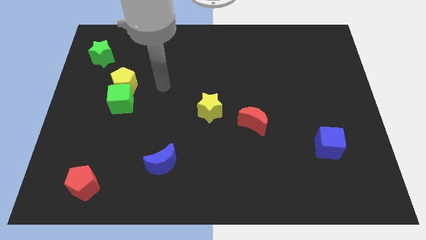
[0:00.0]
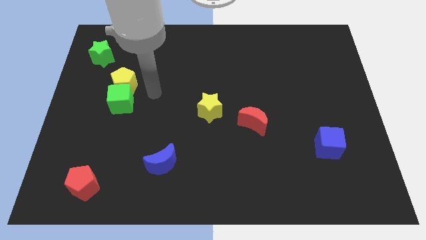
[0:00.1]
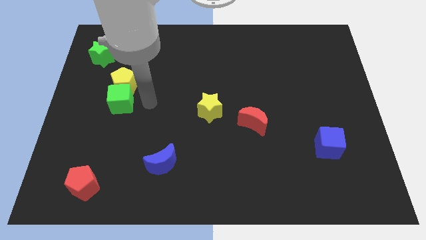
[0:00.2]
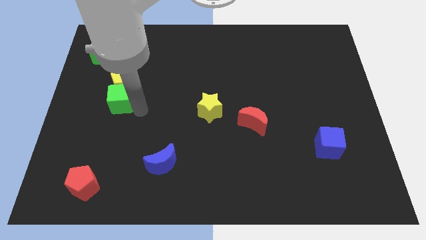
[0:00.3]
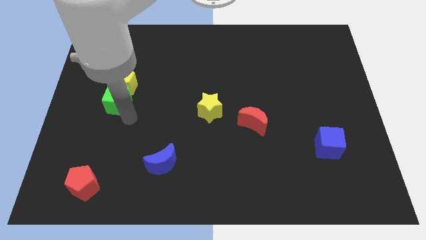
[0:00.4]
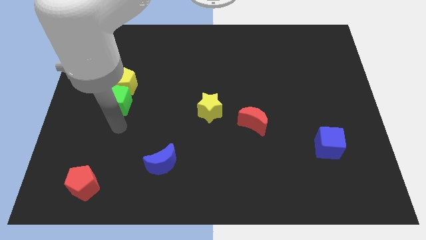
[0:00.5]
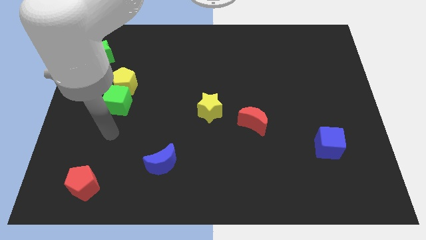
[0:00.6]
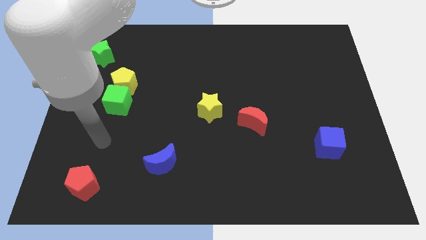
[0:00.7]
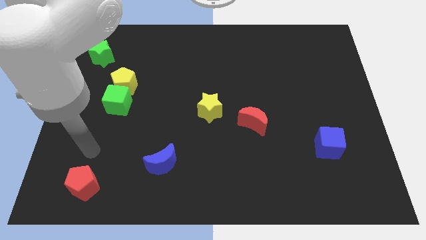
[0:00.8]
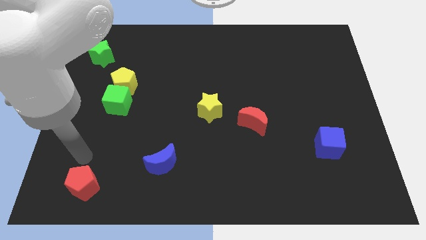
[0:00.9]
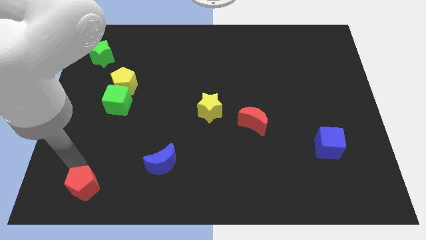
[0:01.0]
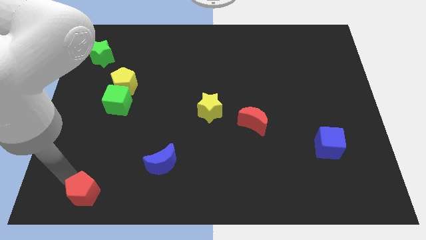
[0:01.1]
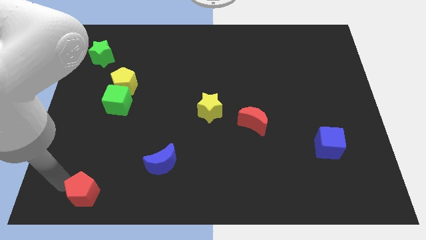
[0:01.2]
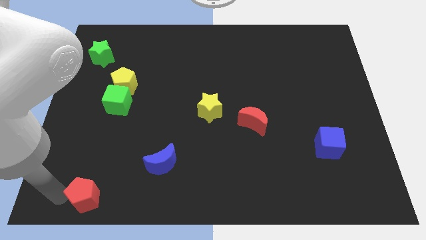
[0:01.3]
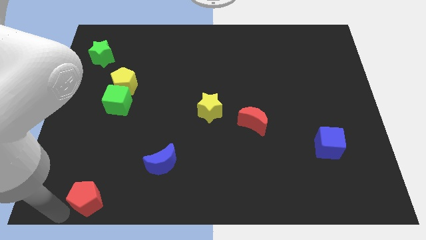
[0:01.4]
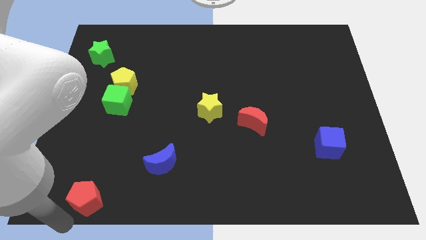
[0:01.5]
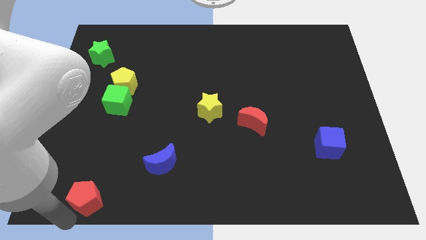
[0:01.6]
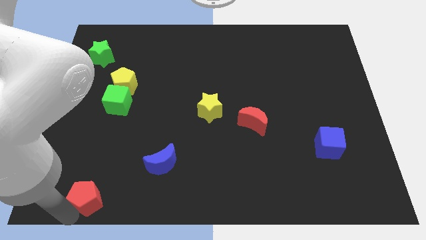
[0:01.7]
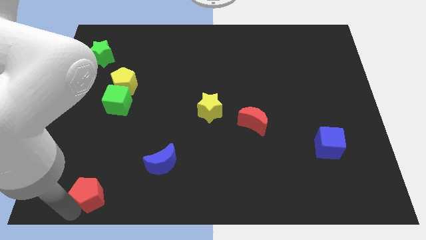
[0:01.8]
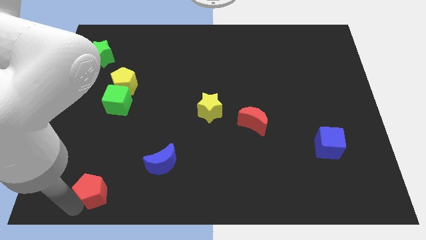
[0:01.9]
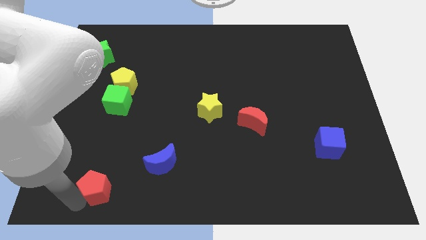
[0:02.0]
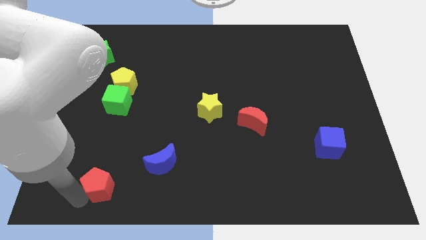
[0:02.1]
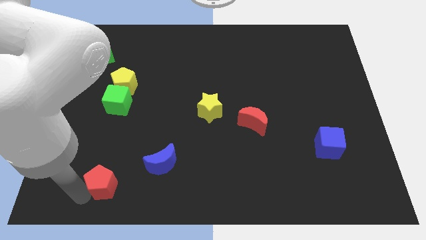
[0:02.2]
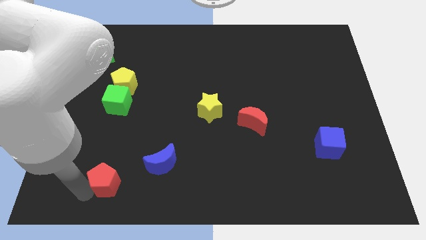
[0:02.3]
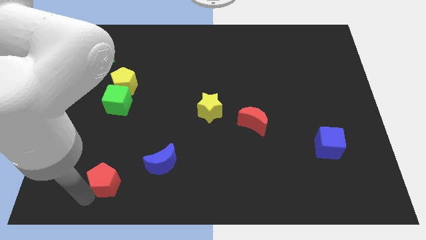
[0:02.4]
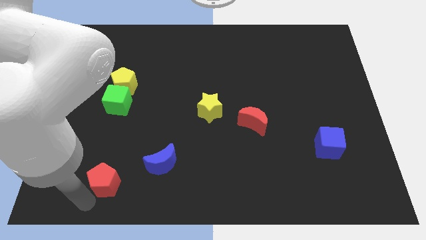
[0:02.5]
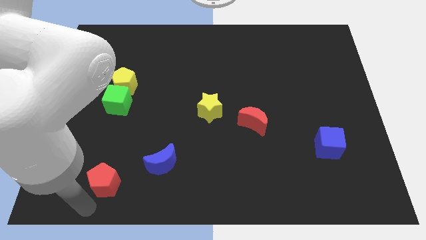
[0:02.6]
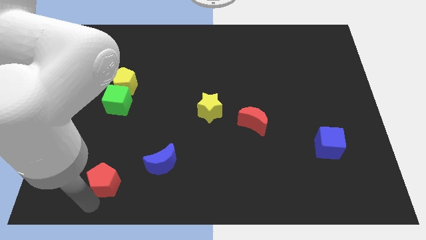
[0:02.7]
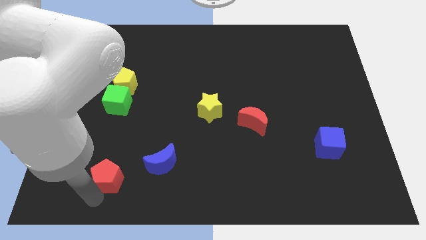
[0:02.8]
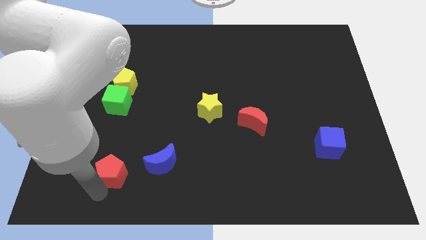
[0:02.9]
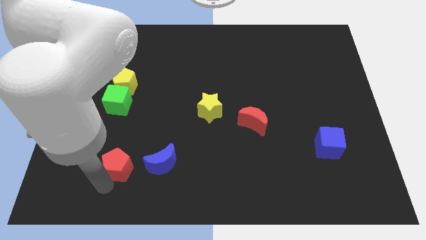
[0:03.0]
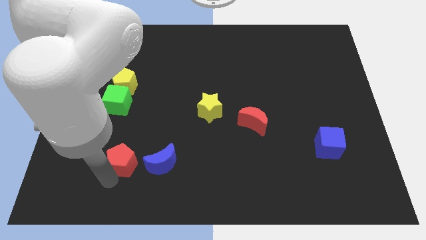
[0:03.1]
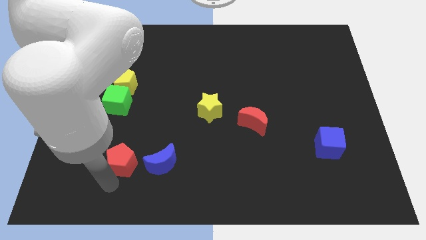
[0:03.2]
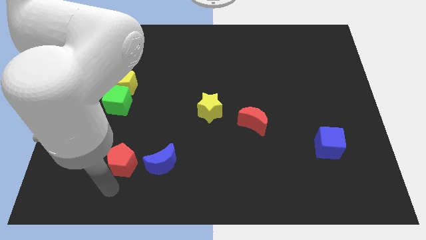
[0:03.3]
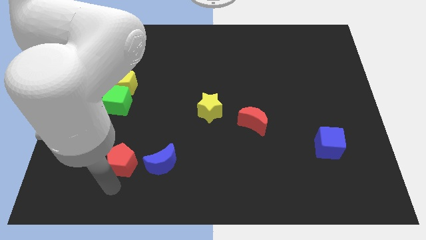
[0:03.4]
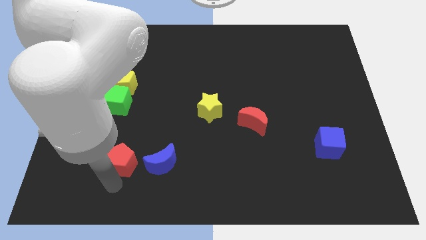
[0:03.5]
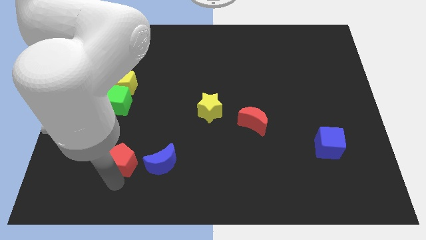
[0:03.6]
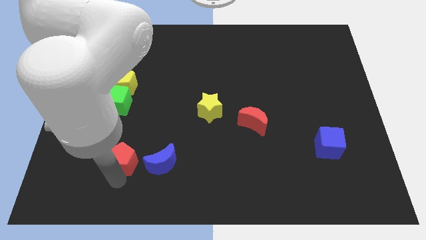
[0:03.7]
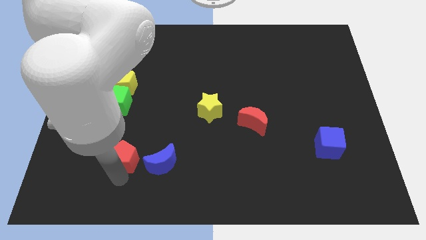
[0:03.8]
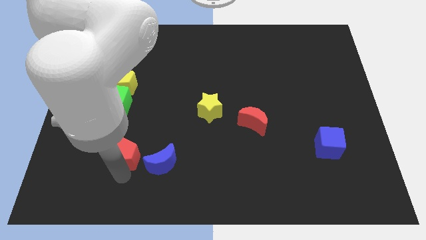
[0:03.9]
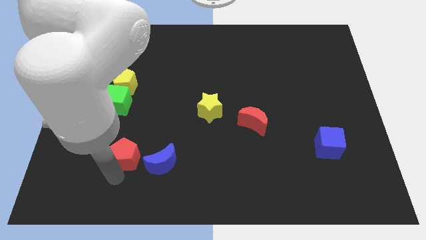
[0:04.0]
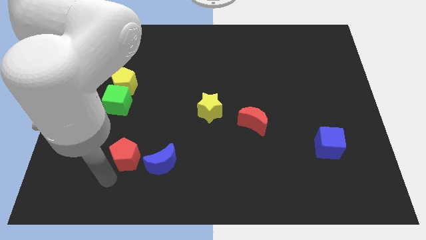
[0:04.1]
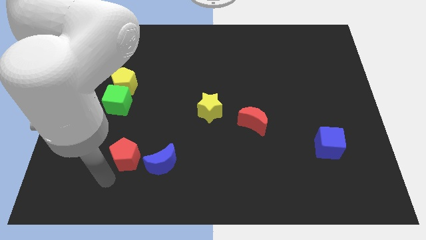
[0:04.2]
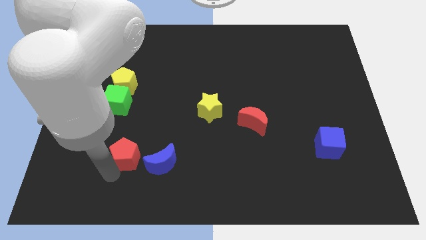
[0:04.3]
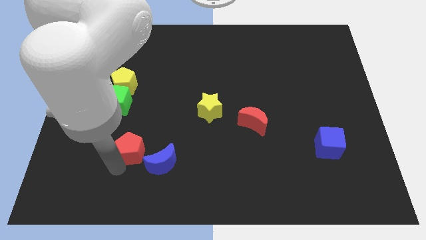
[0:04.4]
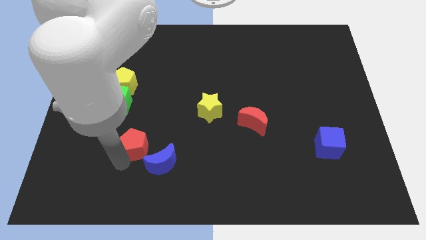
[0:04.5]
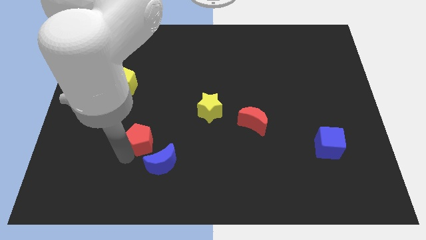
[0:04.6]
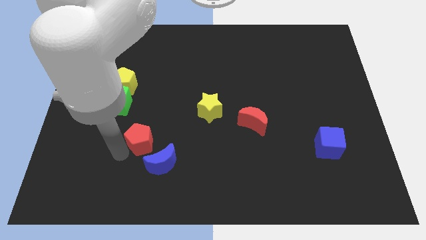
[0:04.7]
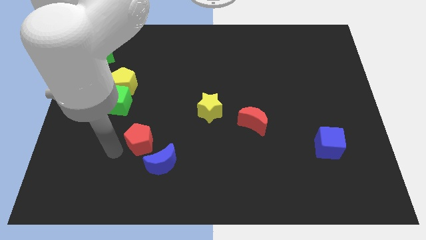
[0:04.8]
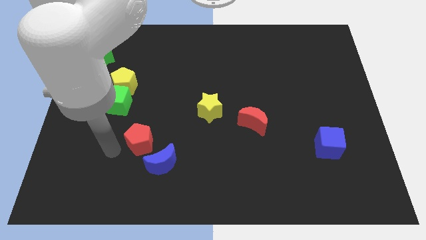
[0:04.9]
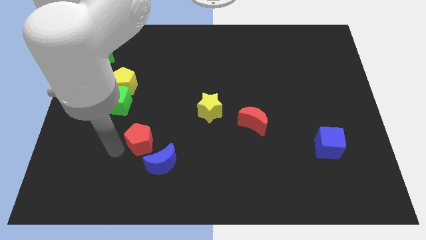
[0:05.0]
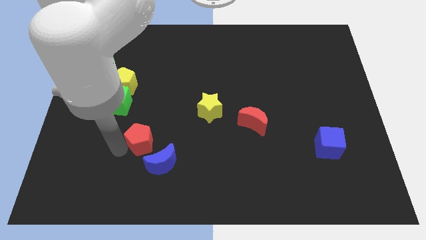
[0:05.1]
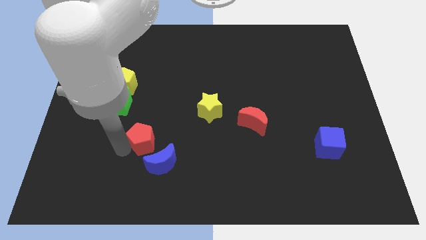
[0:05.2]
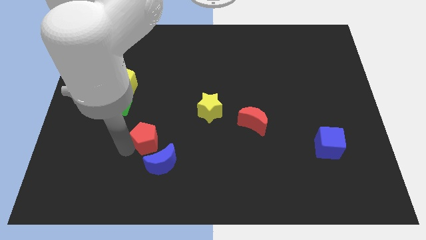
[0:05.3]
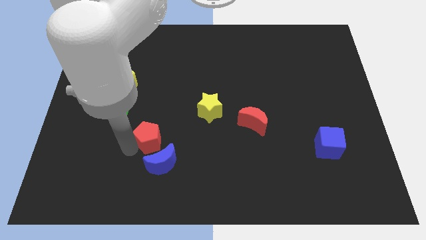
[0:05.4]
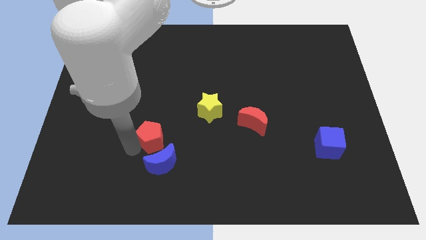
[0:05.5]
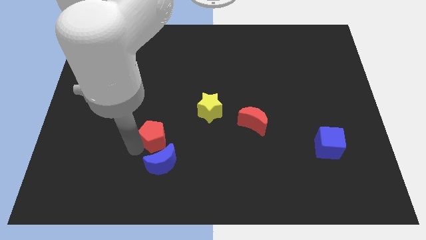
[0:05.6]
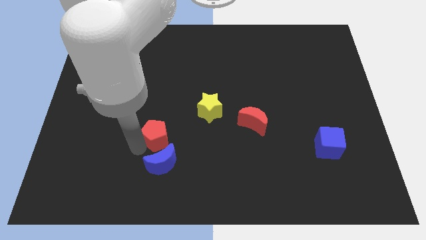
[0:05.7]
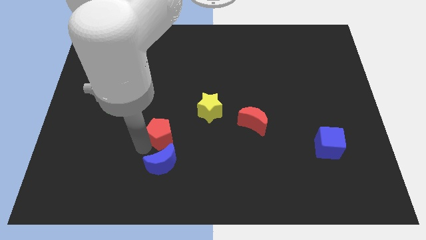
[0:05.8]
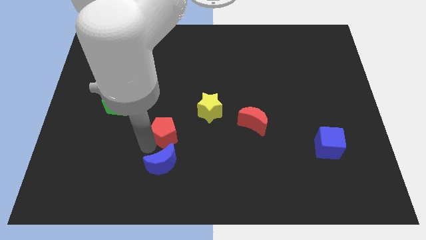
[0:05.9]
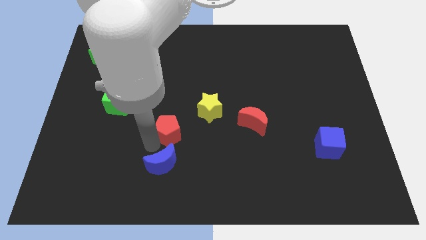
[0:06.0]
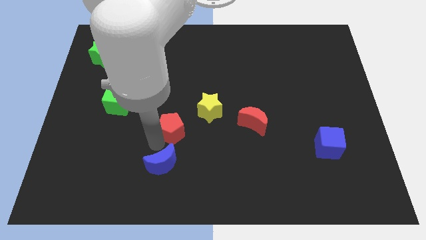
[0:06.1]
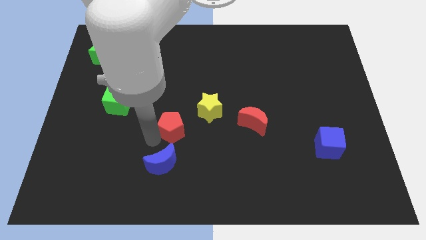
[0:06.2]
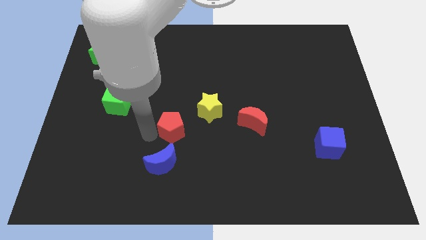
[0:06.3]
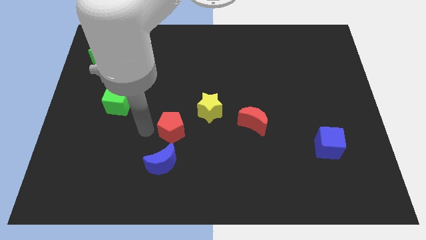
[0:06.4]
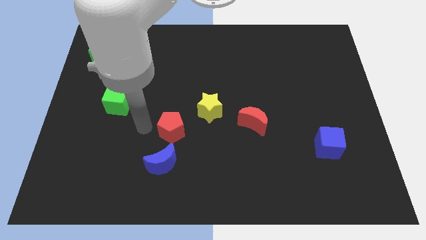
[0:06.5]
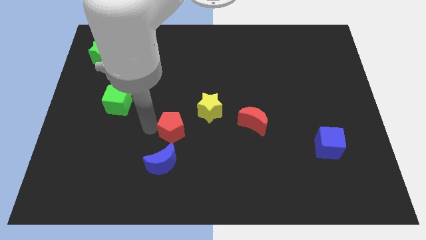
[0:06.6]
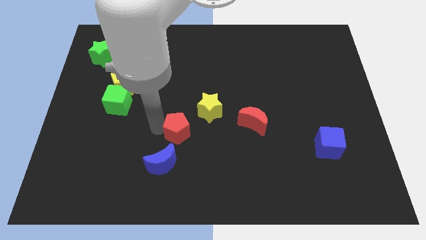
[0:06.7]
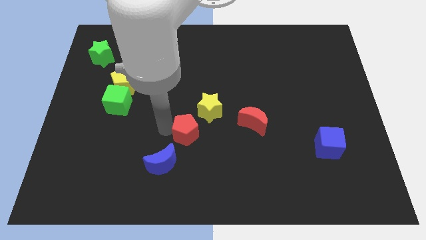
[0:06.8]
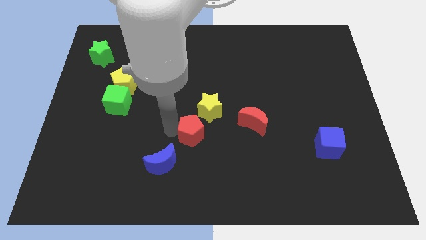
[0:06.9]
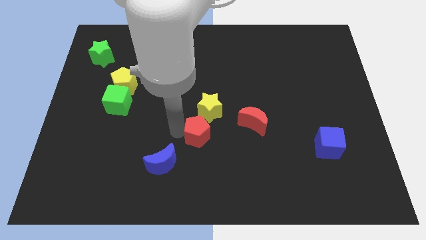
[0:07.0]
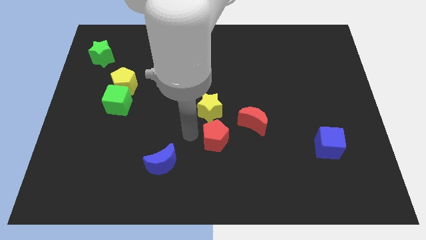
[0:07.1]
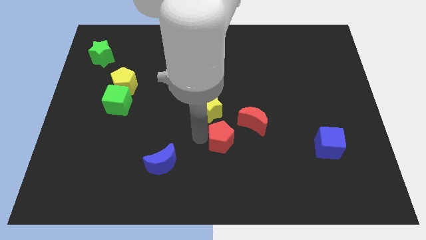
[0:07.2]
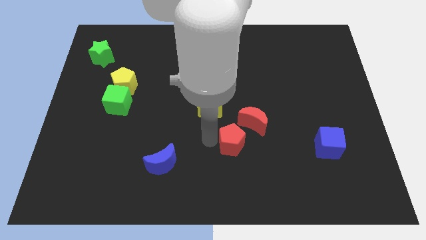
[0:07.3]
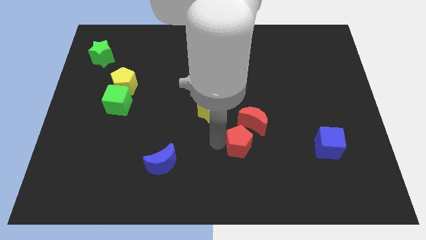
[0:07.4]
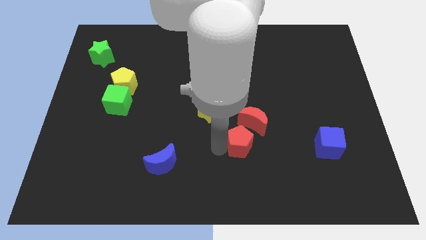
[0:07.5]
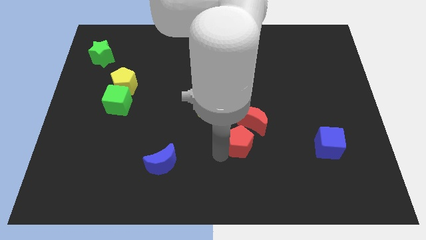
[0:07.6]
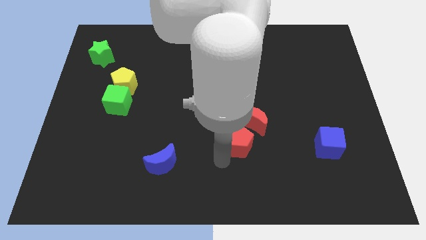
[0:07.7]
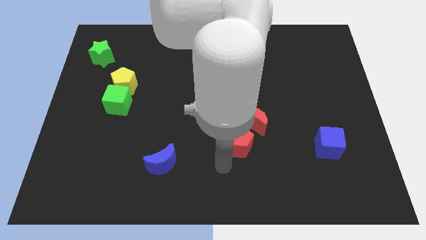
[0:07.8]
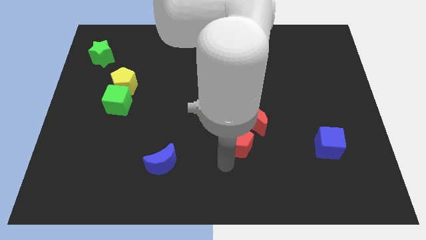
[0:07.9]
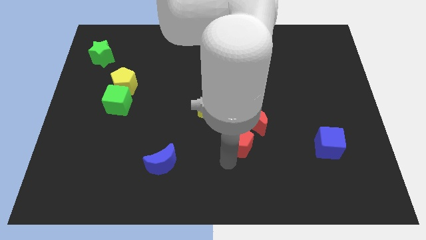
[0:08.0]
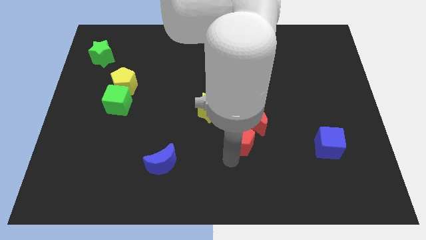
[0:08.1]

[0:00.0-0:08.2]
slide the red pentagon towards the red moon
